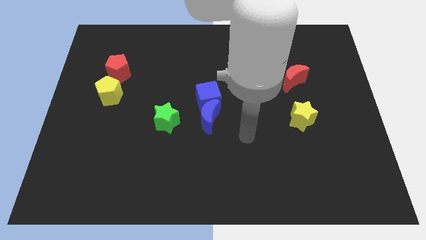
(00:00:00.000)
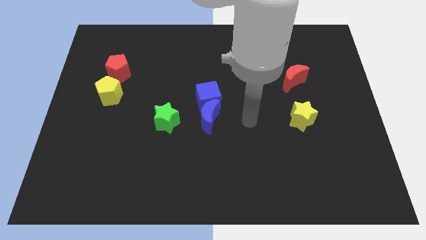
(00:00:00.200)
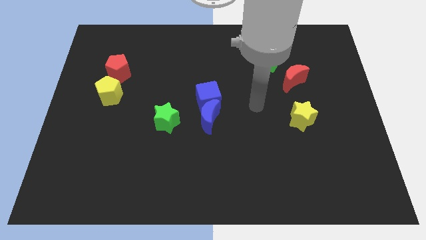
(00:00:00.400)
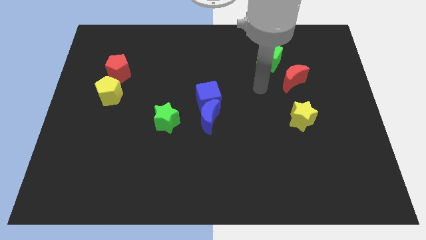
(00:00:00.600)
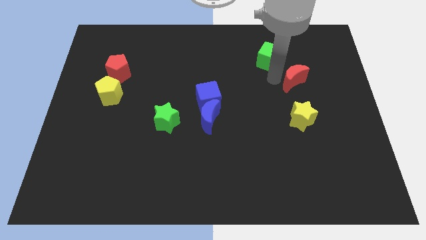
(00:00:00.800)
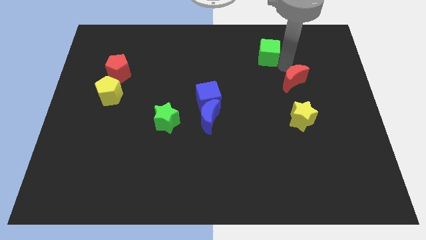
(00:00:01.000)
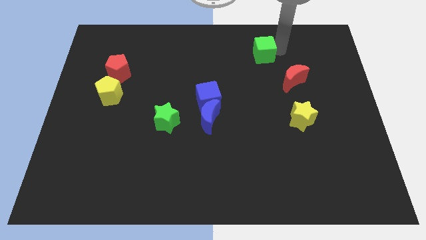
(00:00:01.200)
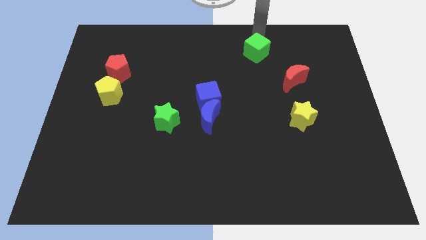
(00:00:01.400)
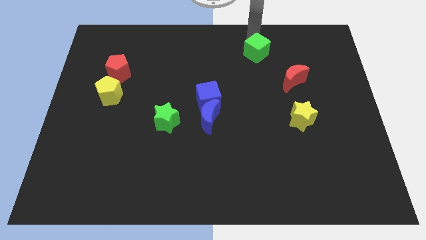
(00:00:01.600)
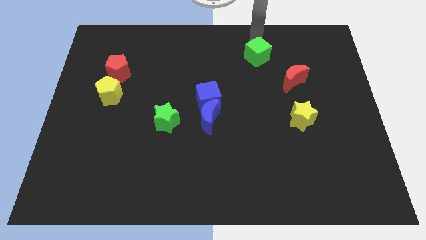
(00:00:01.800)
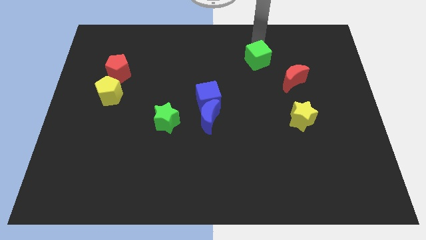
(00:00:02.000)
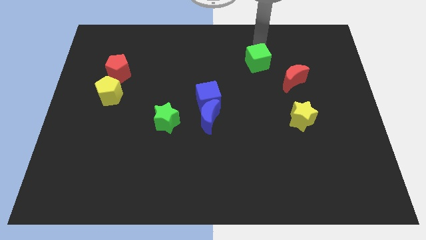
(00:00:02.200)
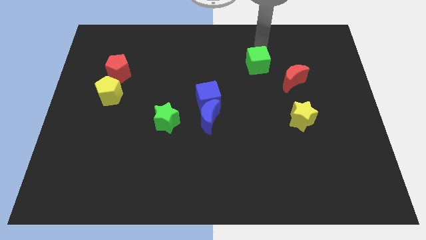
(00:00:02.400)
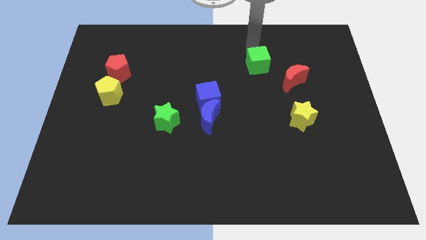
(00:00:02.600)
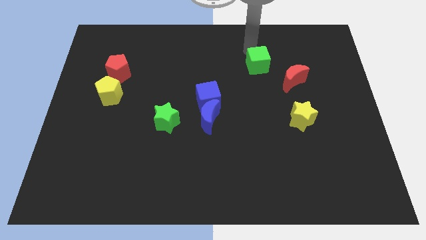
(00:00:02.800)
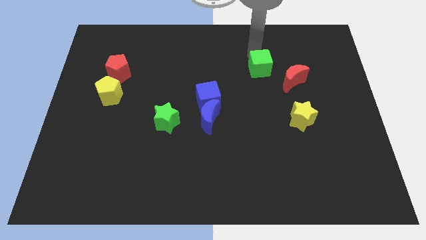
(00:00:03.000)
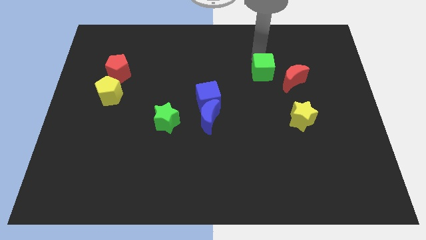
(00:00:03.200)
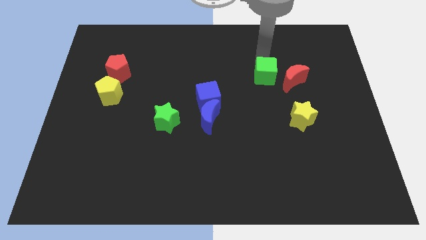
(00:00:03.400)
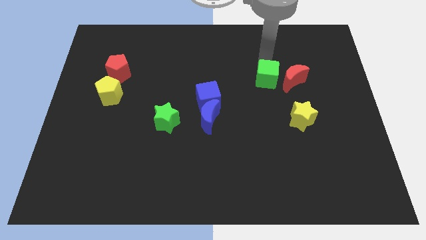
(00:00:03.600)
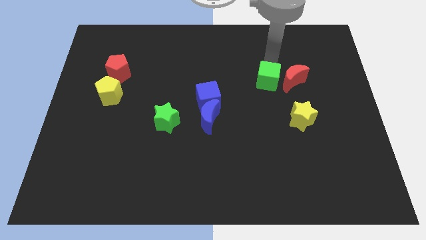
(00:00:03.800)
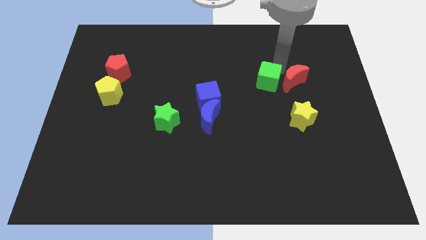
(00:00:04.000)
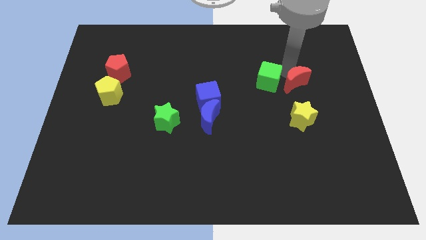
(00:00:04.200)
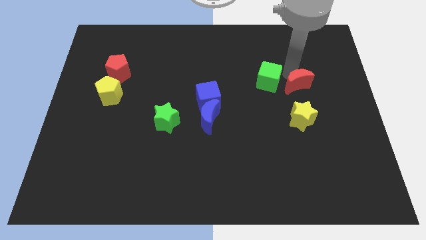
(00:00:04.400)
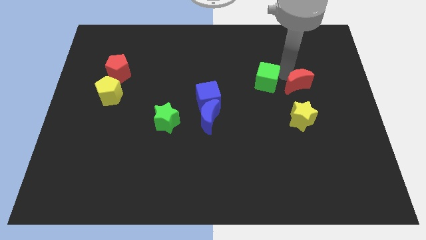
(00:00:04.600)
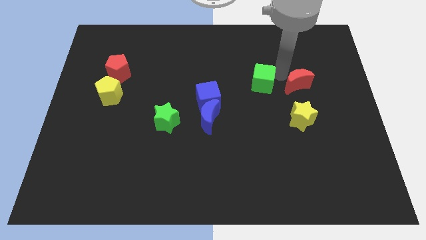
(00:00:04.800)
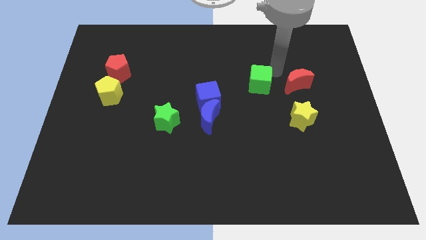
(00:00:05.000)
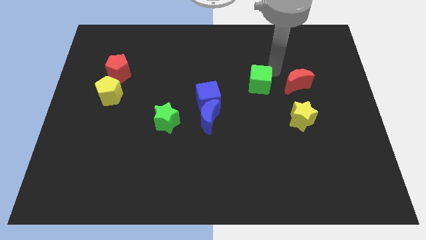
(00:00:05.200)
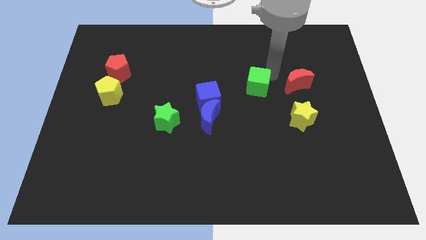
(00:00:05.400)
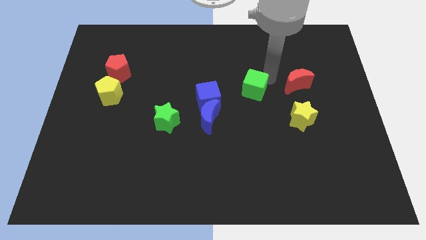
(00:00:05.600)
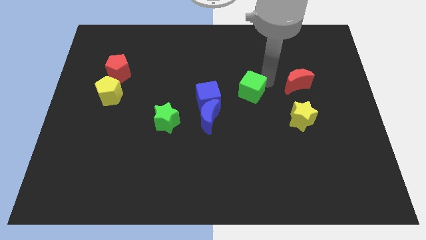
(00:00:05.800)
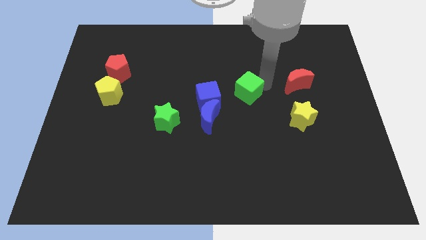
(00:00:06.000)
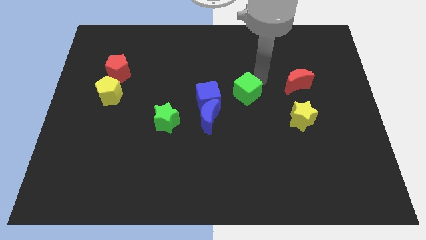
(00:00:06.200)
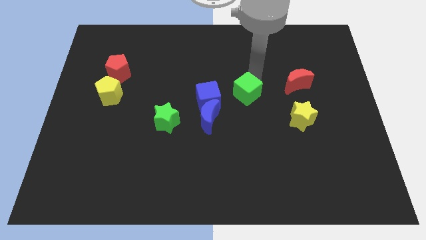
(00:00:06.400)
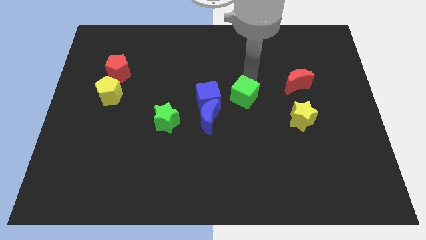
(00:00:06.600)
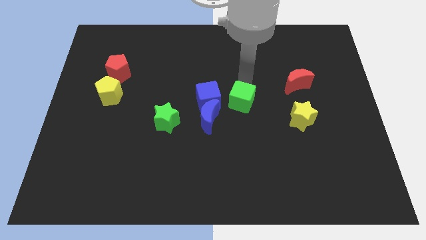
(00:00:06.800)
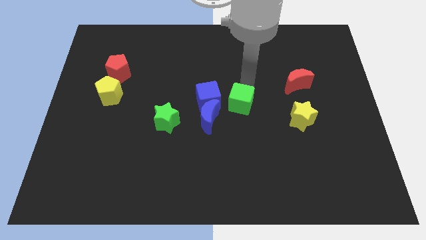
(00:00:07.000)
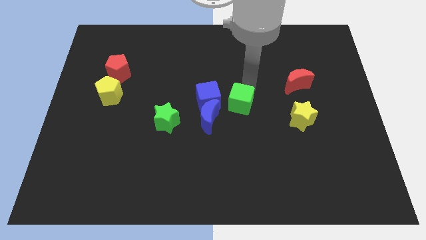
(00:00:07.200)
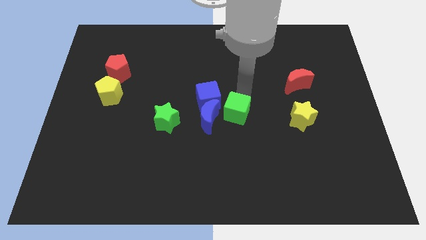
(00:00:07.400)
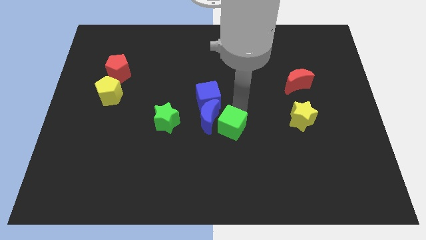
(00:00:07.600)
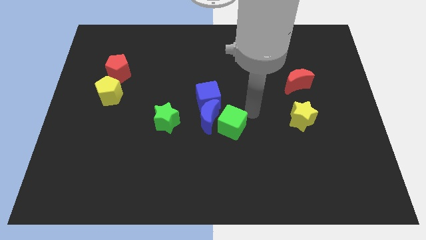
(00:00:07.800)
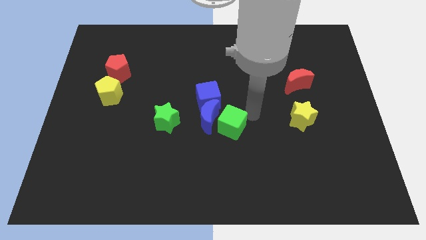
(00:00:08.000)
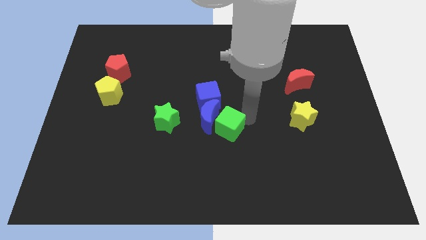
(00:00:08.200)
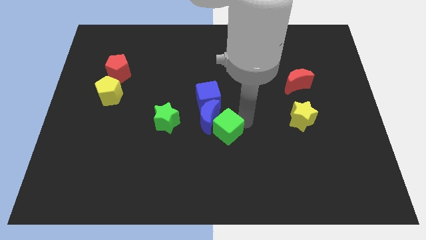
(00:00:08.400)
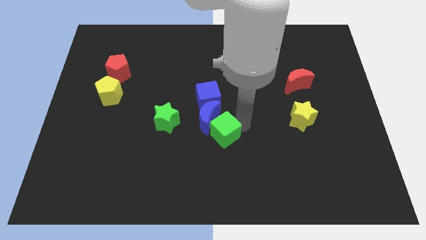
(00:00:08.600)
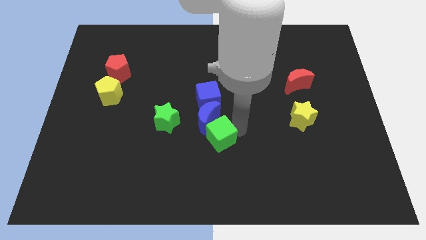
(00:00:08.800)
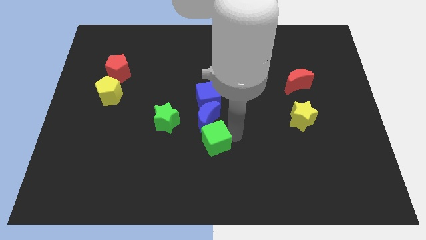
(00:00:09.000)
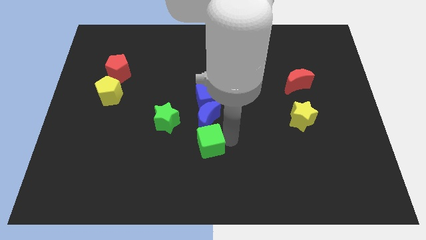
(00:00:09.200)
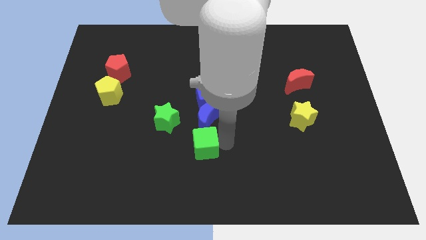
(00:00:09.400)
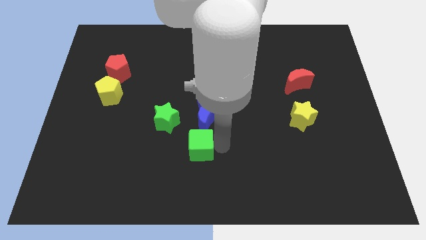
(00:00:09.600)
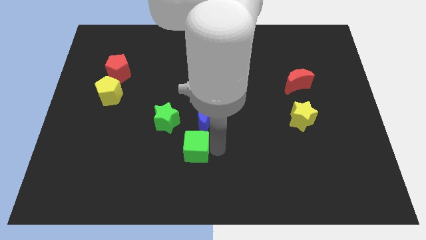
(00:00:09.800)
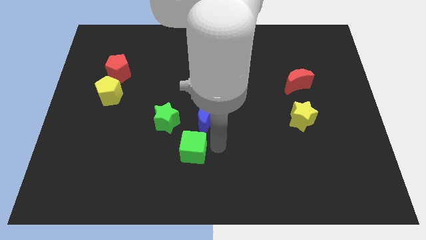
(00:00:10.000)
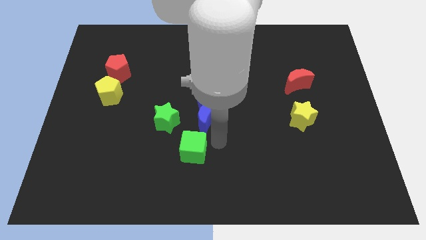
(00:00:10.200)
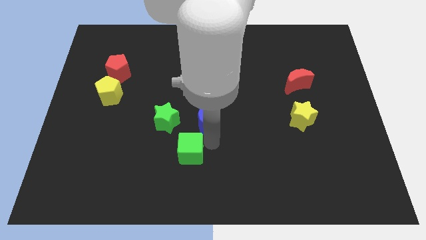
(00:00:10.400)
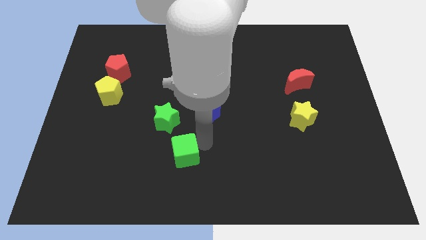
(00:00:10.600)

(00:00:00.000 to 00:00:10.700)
slide the green cube to the bottom of the green star
